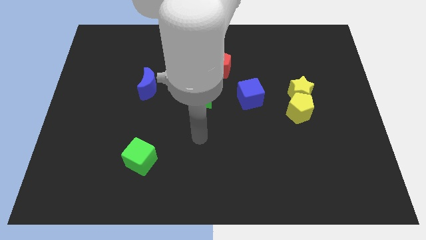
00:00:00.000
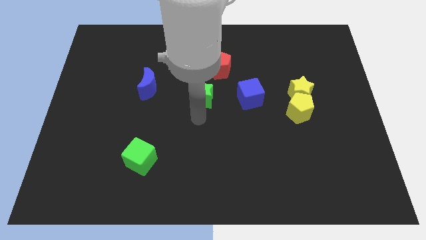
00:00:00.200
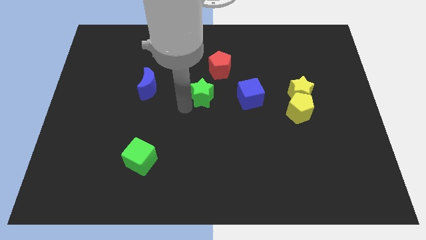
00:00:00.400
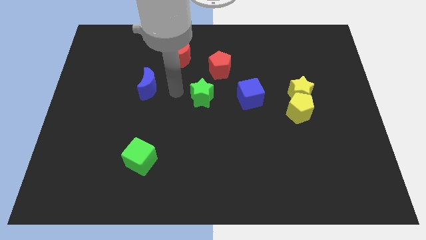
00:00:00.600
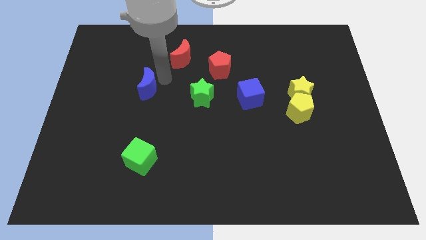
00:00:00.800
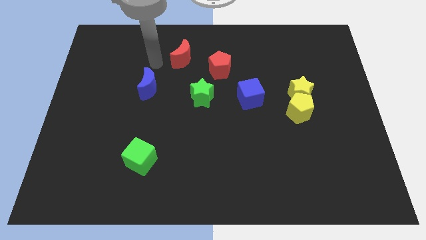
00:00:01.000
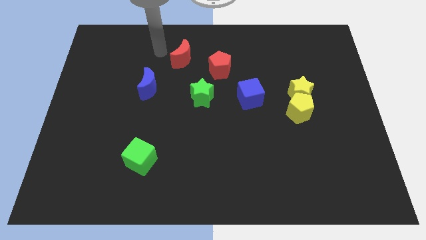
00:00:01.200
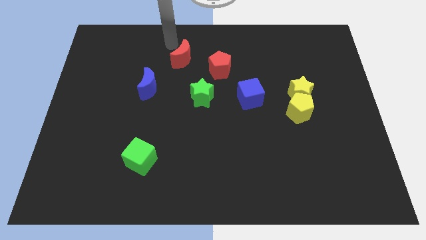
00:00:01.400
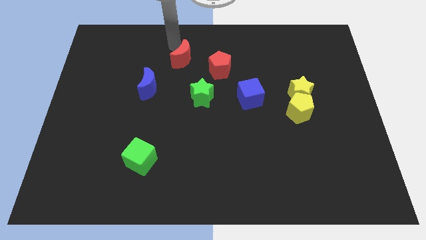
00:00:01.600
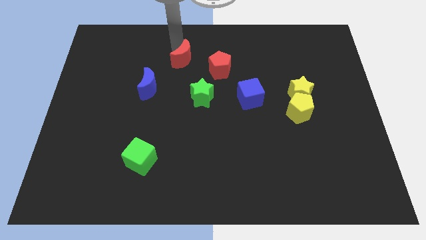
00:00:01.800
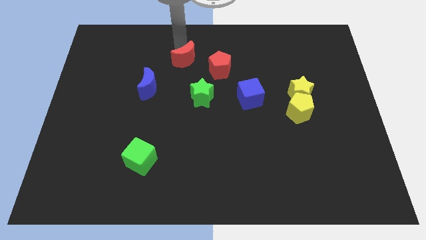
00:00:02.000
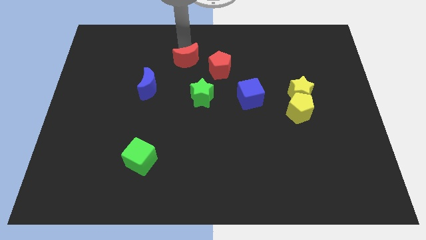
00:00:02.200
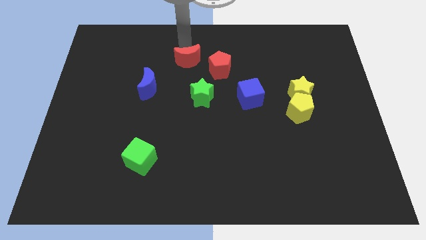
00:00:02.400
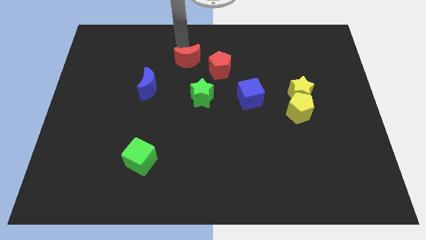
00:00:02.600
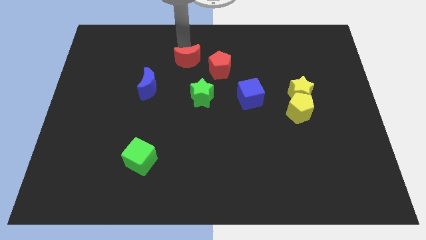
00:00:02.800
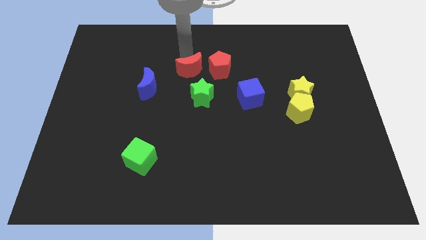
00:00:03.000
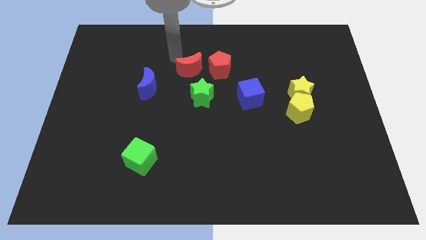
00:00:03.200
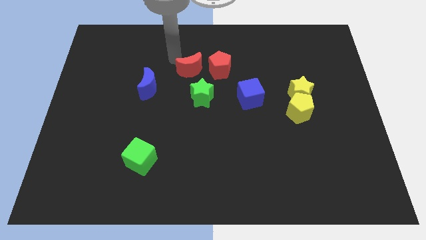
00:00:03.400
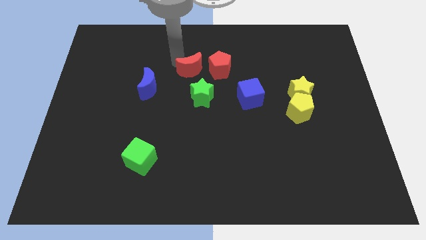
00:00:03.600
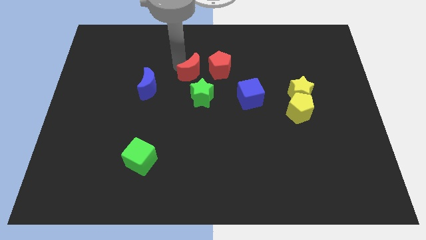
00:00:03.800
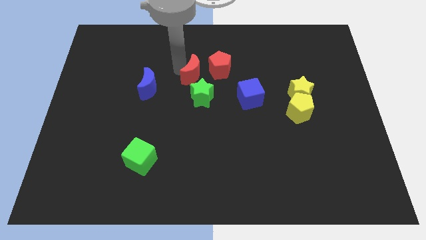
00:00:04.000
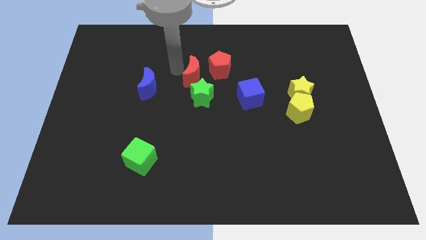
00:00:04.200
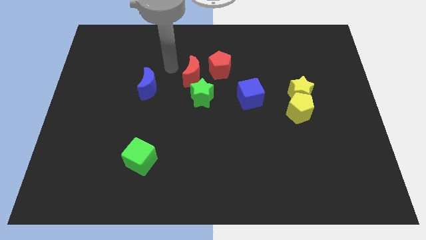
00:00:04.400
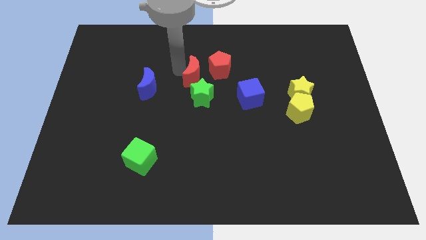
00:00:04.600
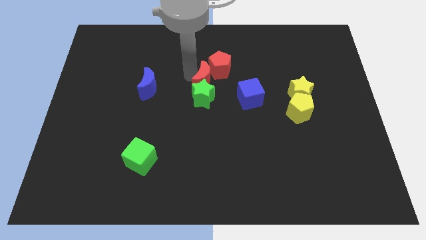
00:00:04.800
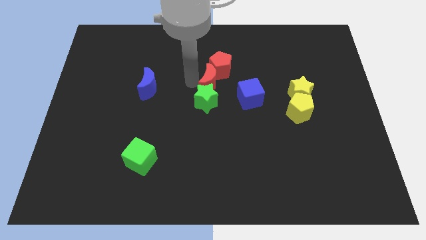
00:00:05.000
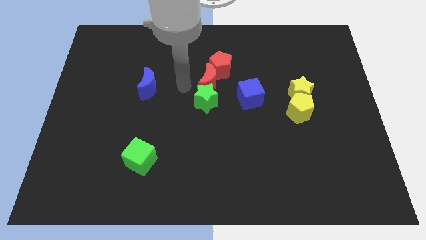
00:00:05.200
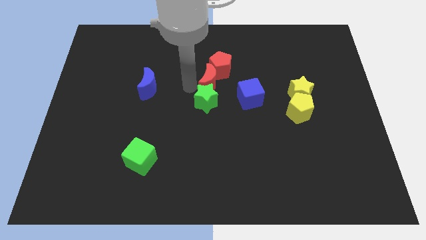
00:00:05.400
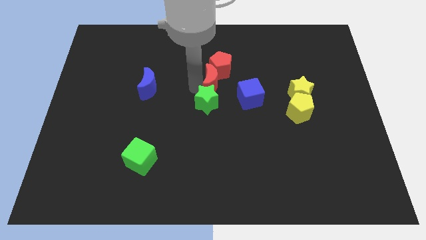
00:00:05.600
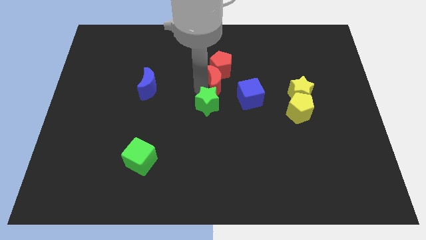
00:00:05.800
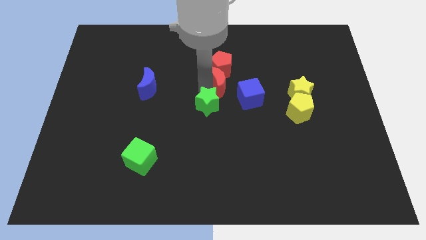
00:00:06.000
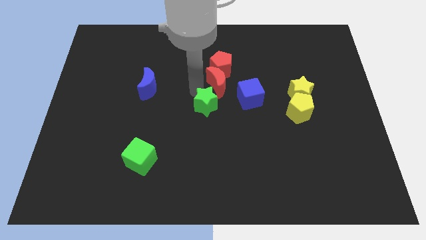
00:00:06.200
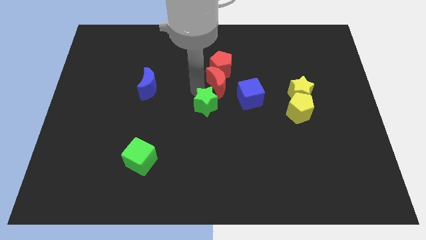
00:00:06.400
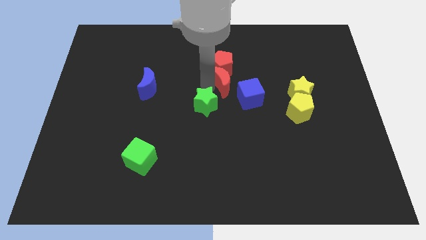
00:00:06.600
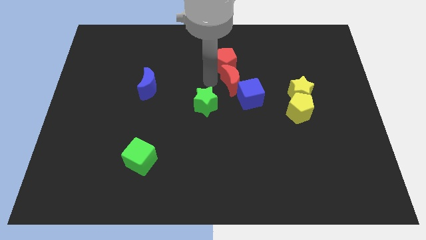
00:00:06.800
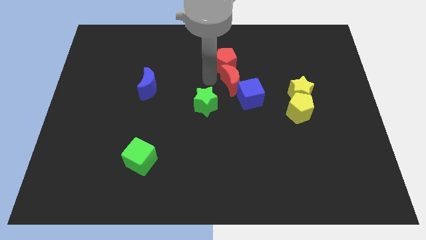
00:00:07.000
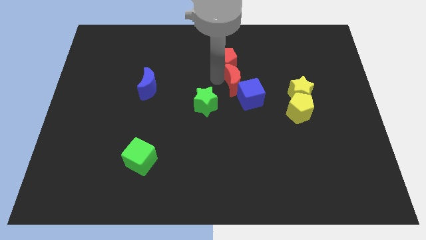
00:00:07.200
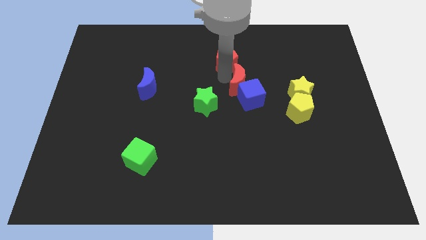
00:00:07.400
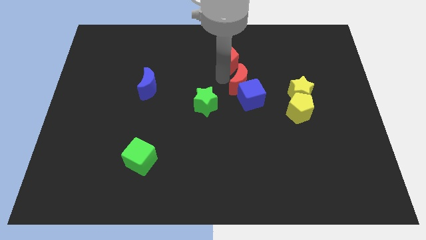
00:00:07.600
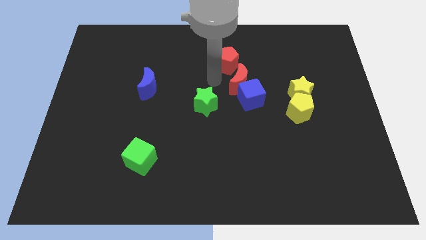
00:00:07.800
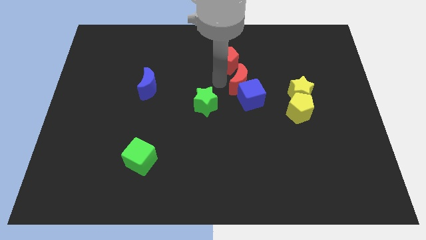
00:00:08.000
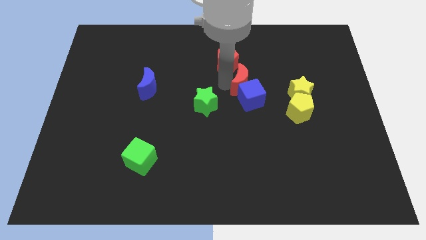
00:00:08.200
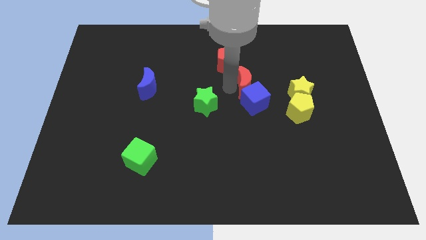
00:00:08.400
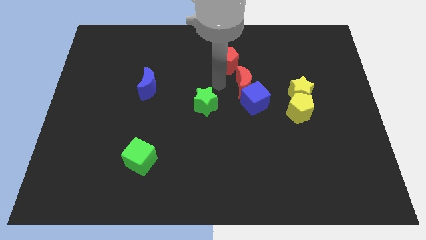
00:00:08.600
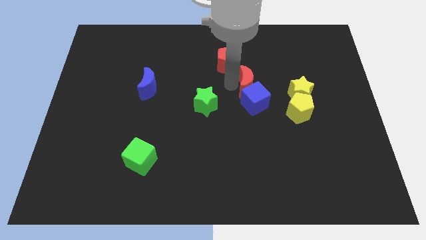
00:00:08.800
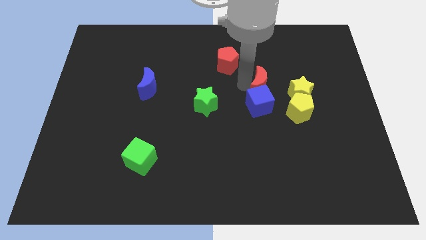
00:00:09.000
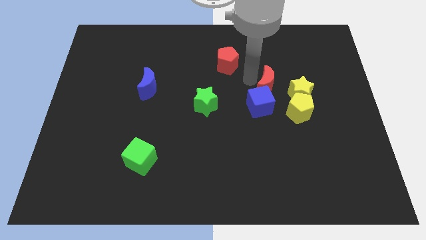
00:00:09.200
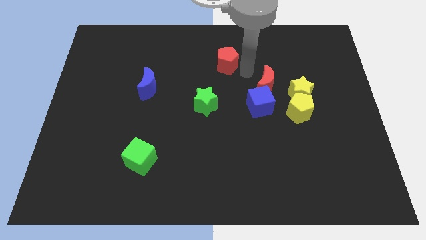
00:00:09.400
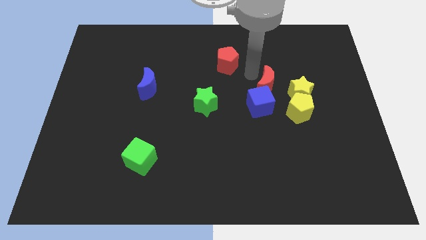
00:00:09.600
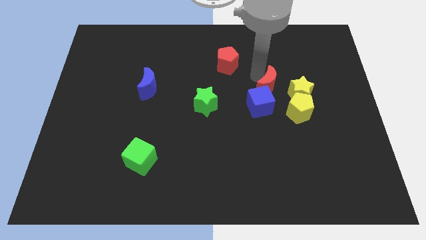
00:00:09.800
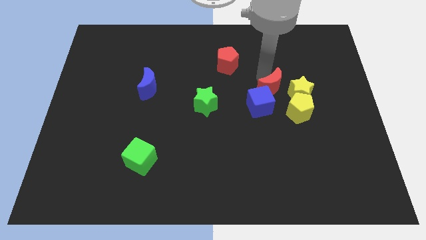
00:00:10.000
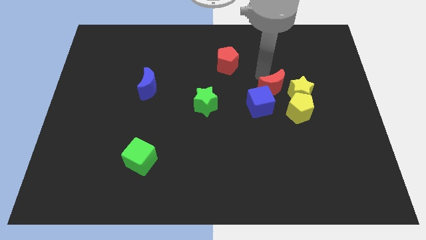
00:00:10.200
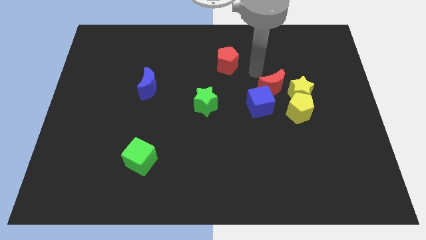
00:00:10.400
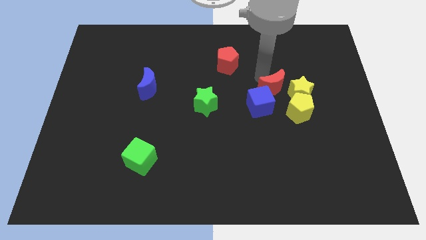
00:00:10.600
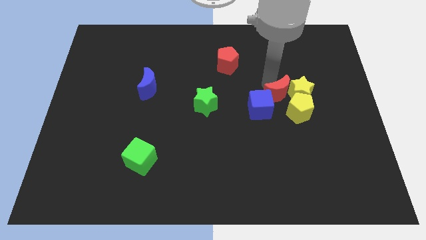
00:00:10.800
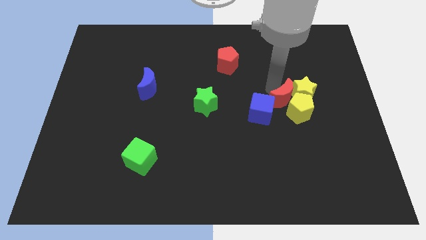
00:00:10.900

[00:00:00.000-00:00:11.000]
push the red moon towards the yellow pentagon

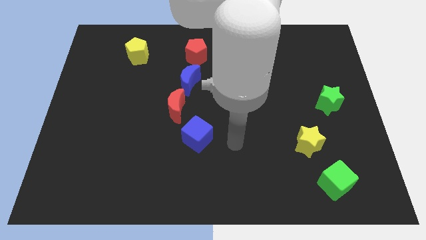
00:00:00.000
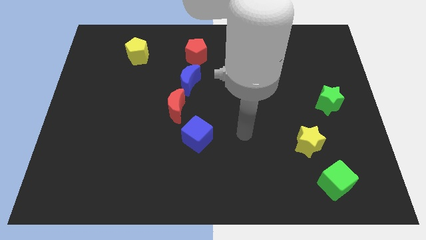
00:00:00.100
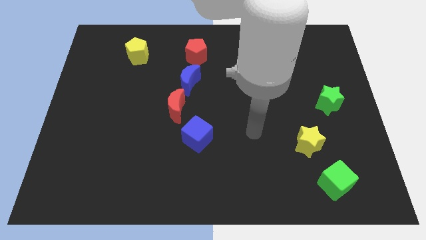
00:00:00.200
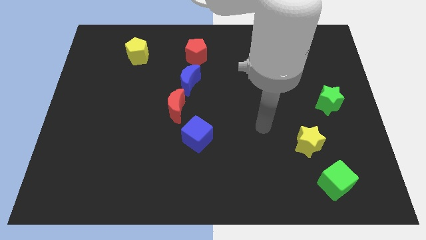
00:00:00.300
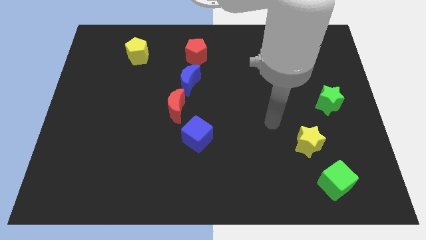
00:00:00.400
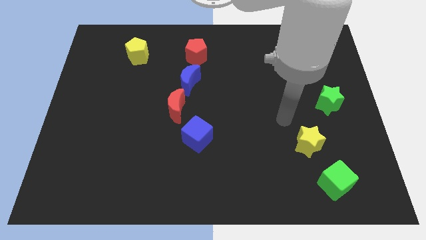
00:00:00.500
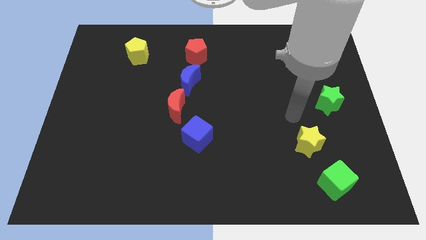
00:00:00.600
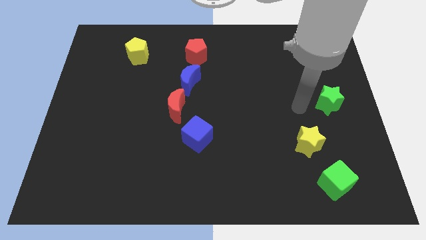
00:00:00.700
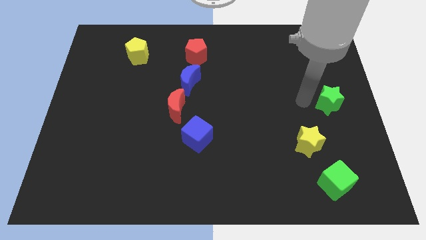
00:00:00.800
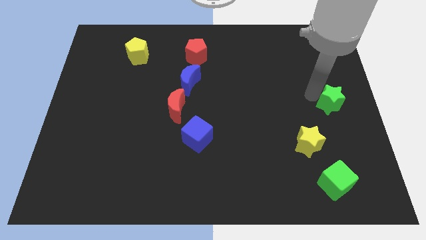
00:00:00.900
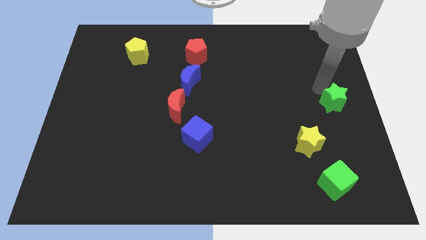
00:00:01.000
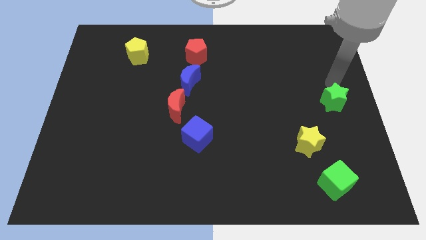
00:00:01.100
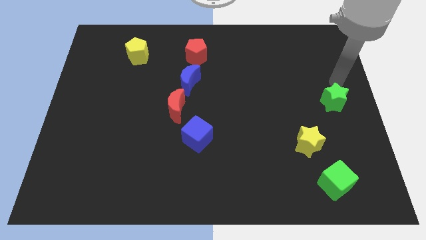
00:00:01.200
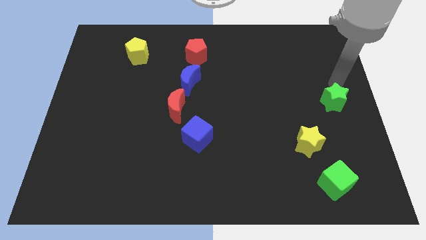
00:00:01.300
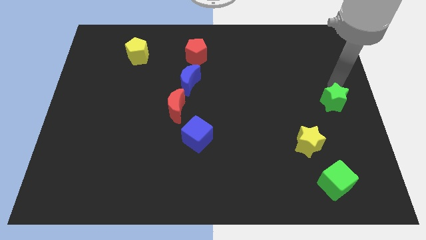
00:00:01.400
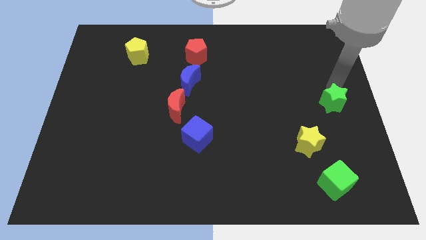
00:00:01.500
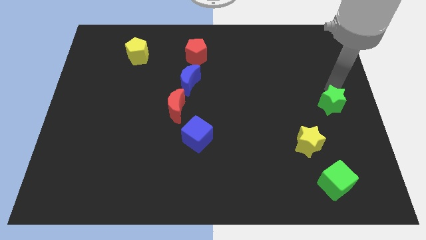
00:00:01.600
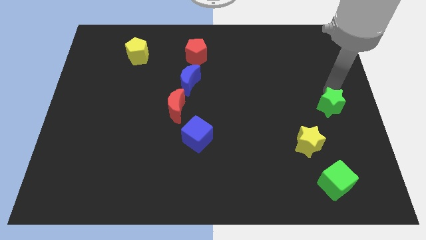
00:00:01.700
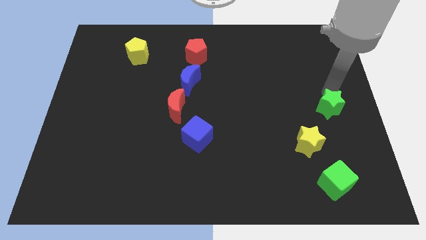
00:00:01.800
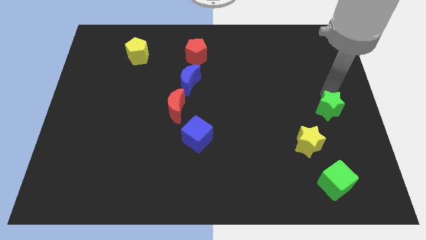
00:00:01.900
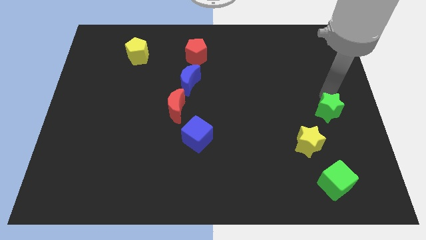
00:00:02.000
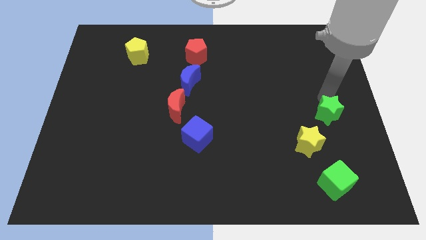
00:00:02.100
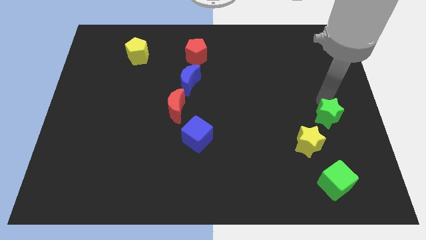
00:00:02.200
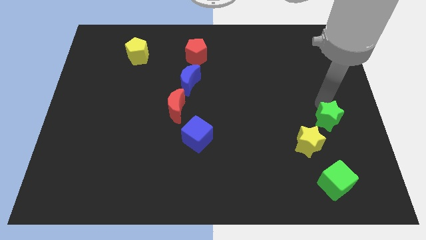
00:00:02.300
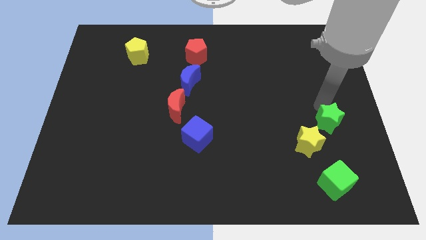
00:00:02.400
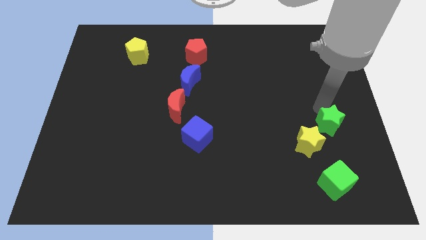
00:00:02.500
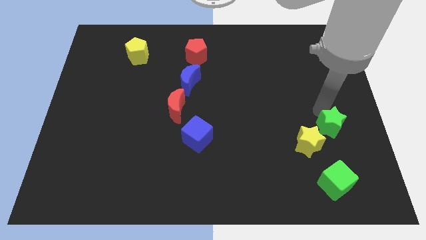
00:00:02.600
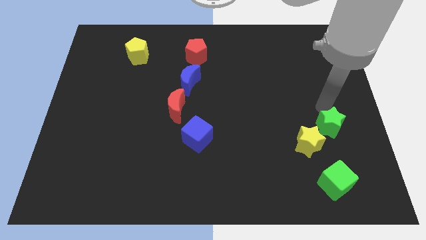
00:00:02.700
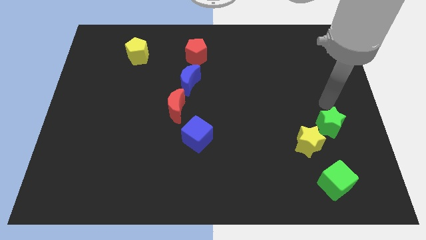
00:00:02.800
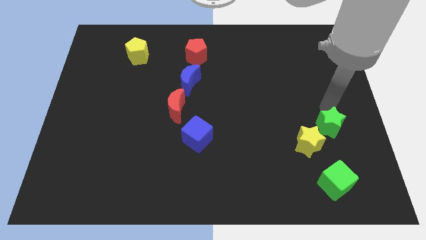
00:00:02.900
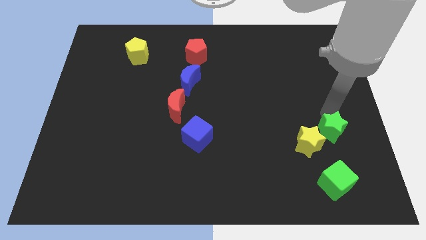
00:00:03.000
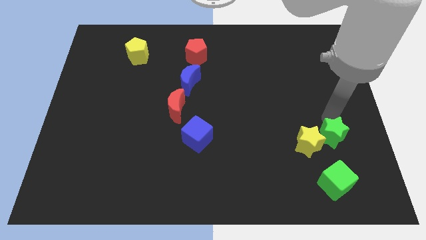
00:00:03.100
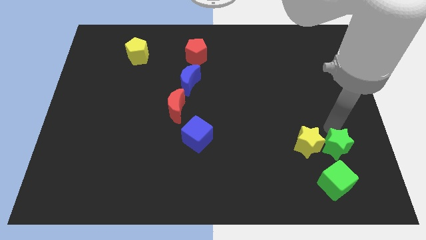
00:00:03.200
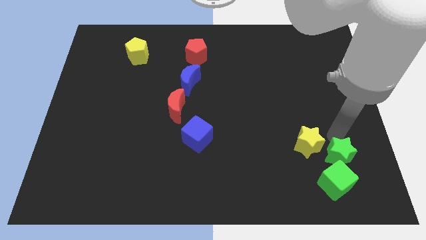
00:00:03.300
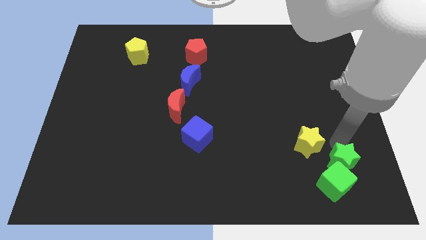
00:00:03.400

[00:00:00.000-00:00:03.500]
put the green star close to the green cube
